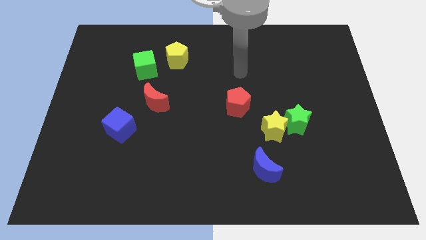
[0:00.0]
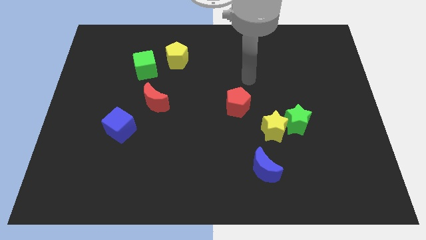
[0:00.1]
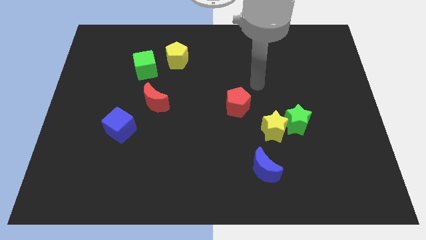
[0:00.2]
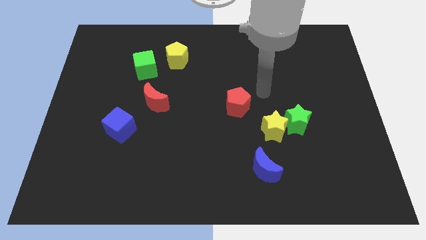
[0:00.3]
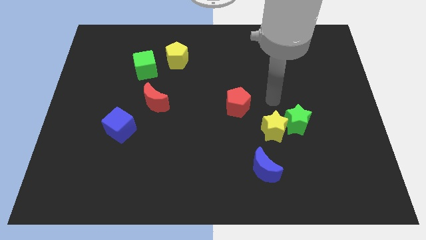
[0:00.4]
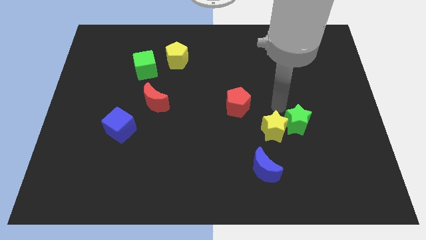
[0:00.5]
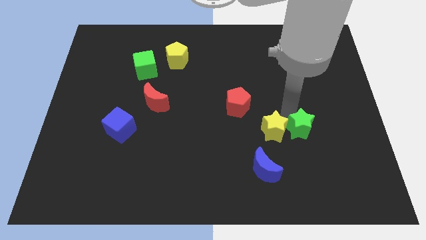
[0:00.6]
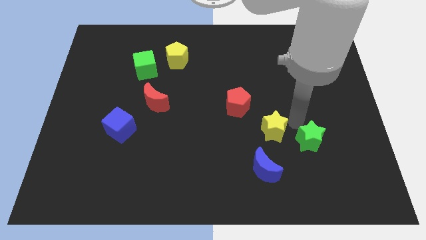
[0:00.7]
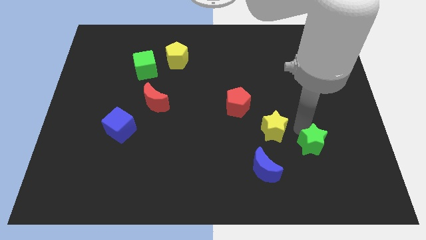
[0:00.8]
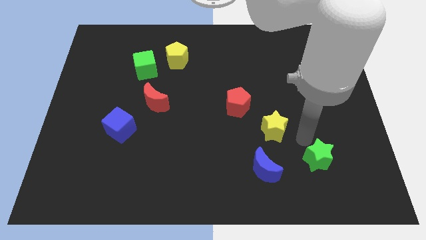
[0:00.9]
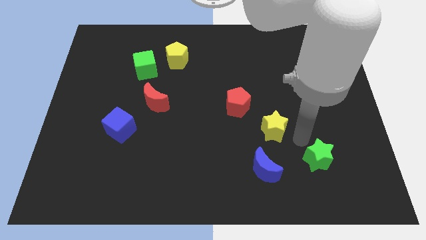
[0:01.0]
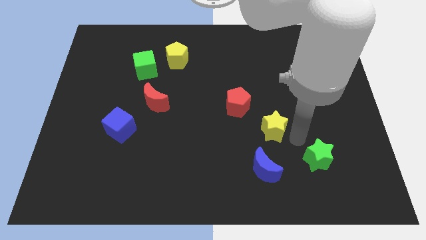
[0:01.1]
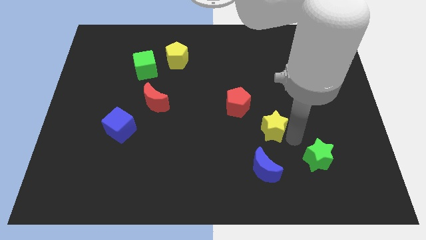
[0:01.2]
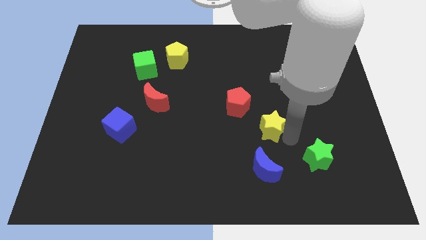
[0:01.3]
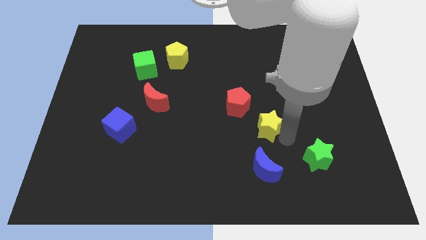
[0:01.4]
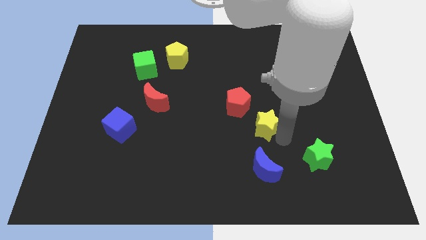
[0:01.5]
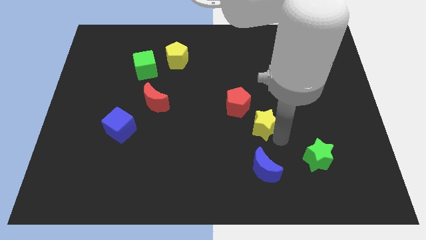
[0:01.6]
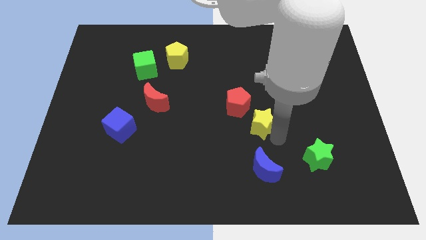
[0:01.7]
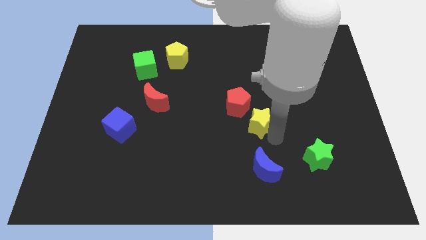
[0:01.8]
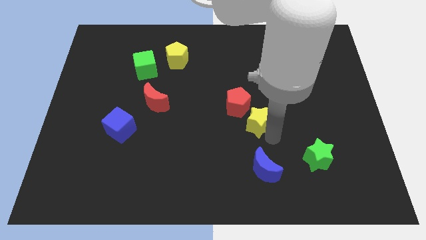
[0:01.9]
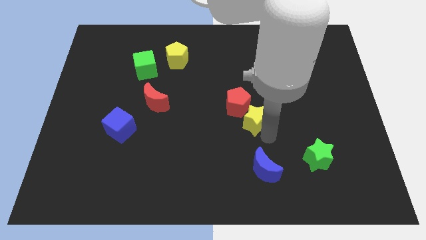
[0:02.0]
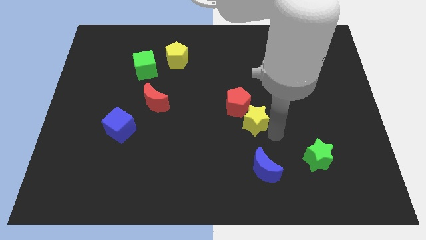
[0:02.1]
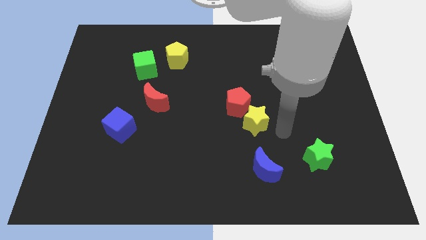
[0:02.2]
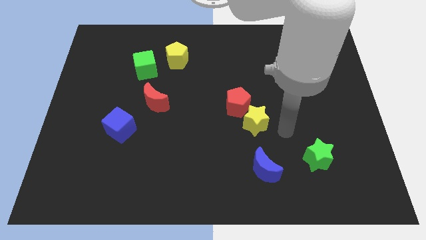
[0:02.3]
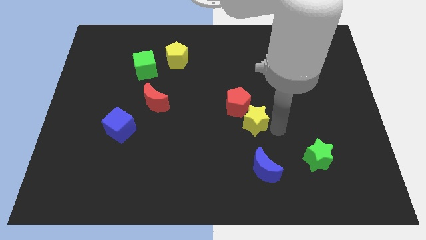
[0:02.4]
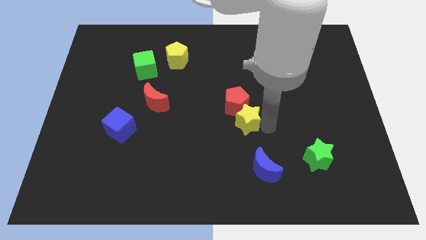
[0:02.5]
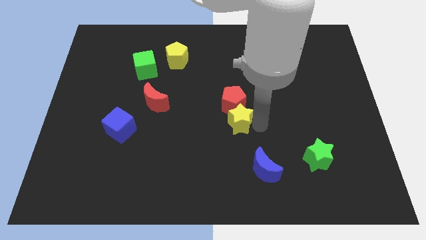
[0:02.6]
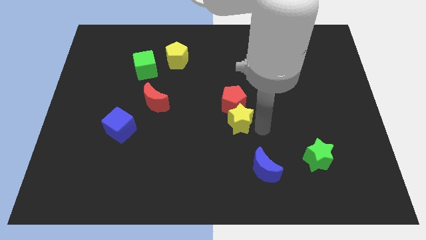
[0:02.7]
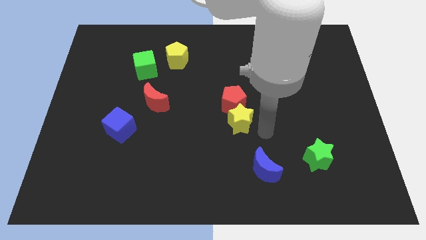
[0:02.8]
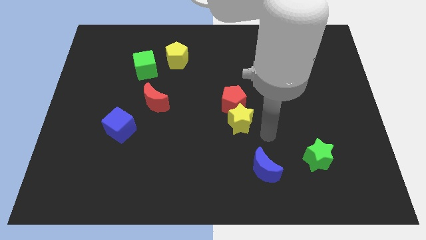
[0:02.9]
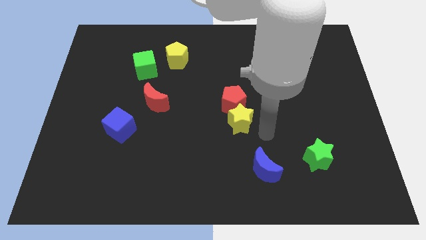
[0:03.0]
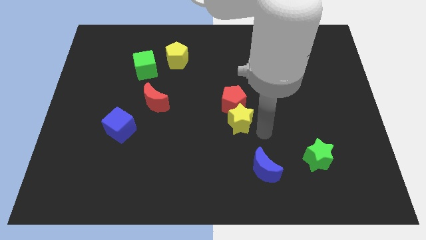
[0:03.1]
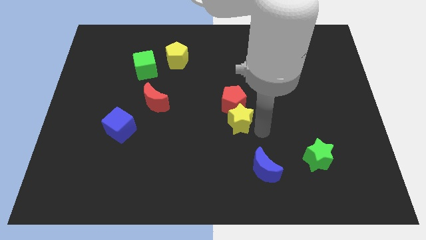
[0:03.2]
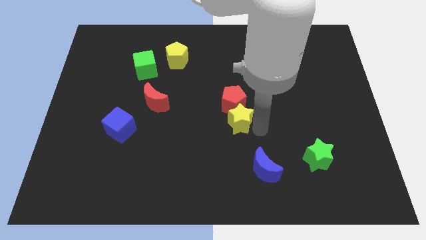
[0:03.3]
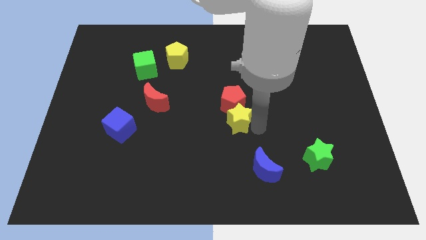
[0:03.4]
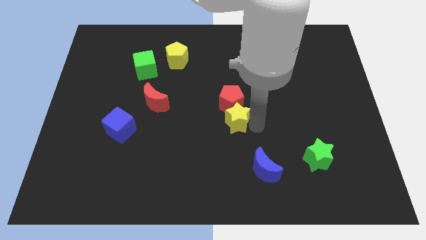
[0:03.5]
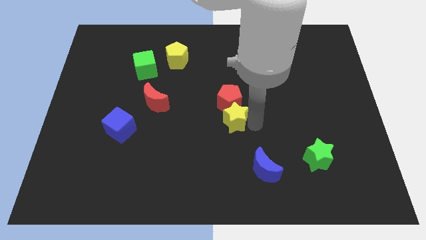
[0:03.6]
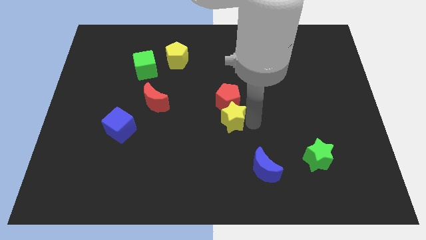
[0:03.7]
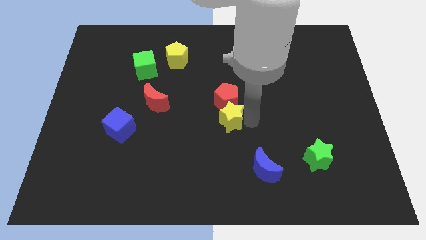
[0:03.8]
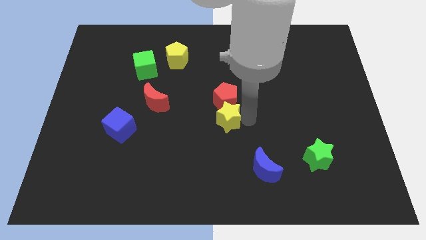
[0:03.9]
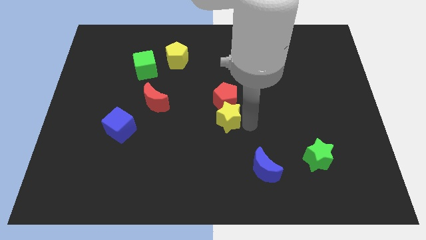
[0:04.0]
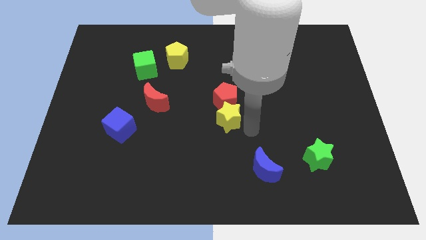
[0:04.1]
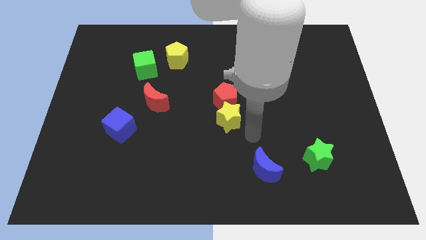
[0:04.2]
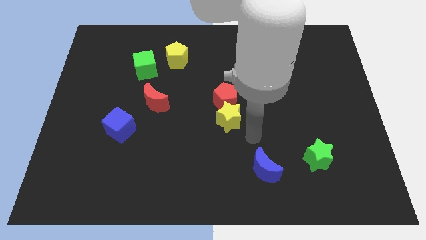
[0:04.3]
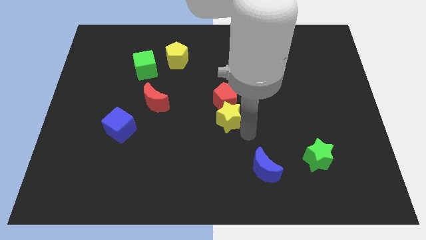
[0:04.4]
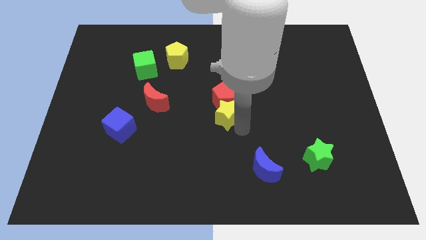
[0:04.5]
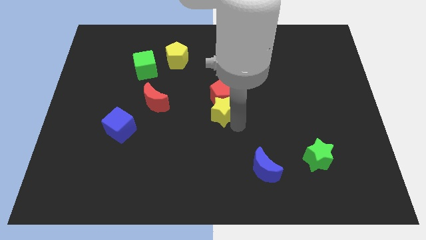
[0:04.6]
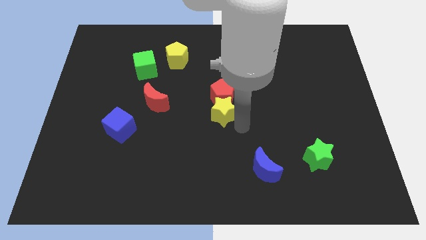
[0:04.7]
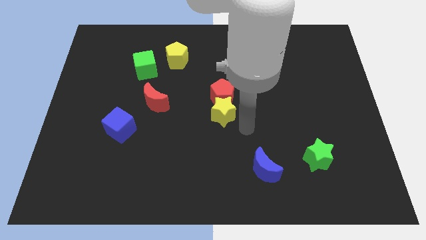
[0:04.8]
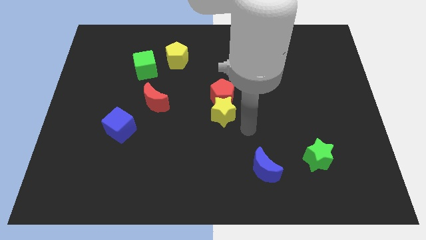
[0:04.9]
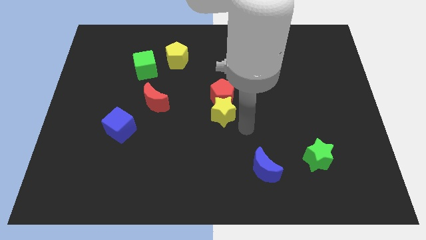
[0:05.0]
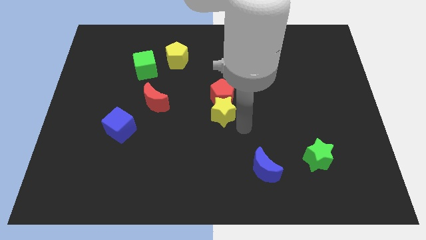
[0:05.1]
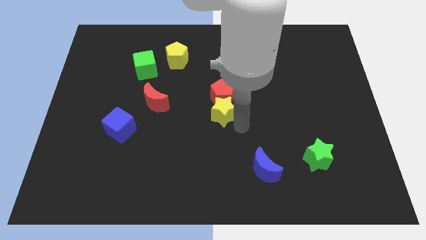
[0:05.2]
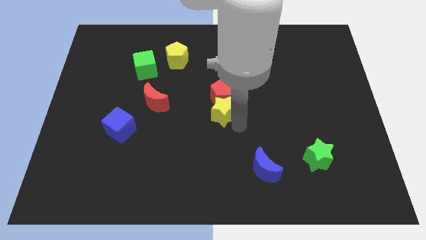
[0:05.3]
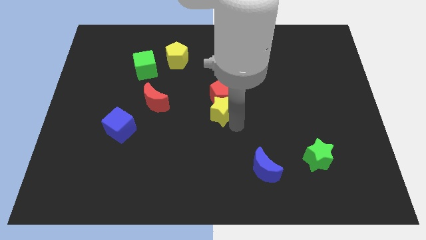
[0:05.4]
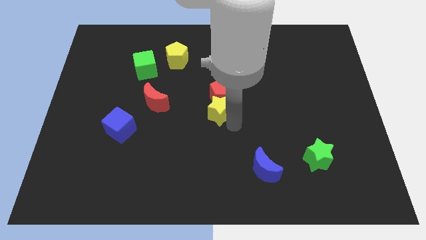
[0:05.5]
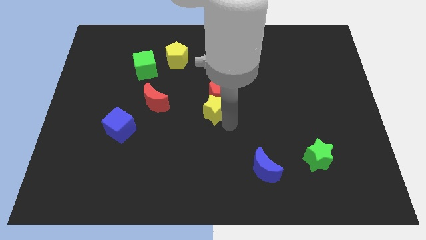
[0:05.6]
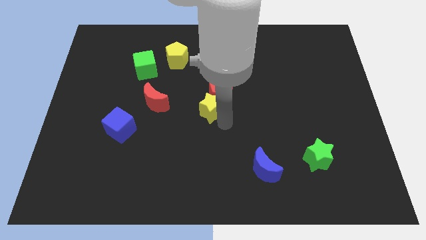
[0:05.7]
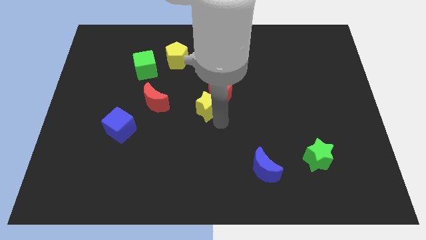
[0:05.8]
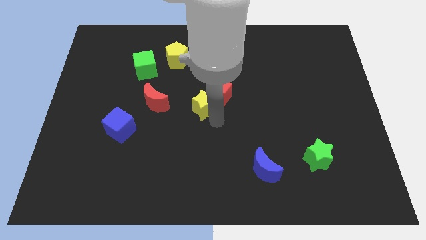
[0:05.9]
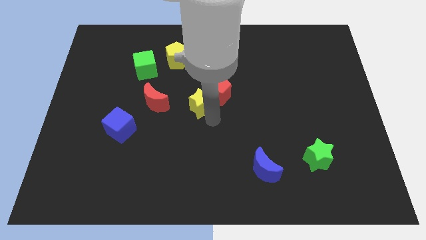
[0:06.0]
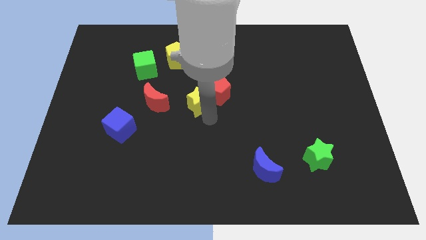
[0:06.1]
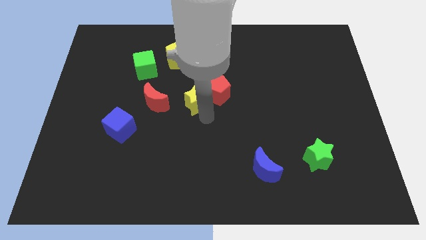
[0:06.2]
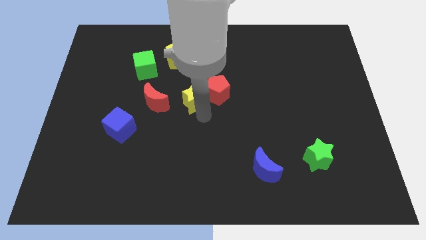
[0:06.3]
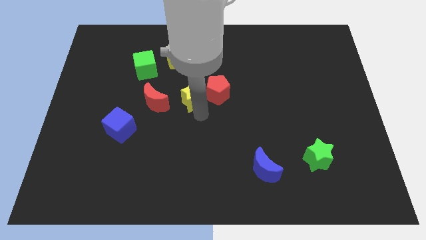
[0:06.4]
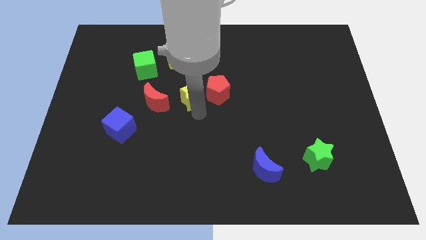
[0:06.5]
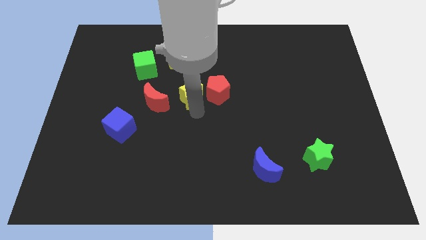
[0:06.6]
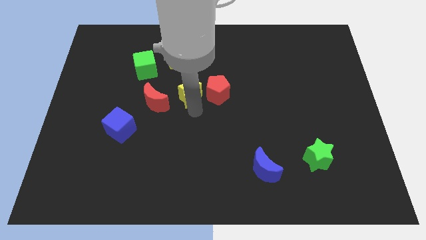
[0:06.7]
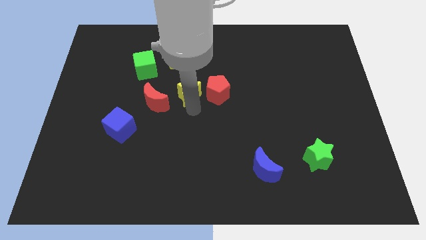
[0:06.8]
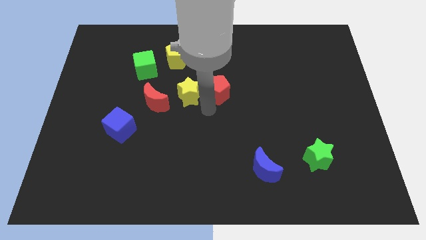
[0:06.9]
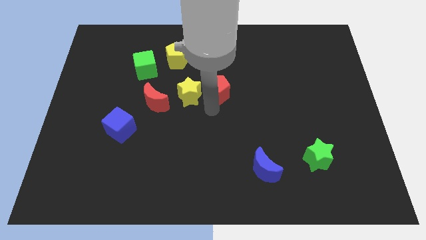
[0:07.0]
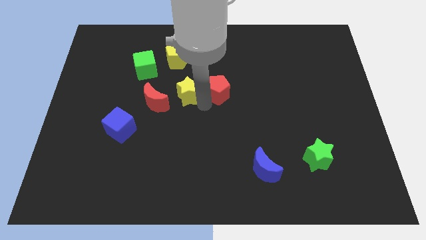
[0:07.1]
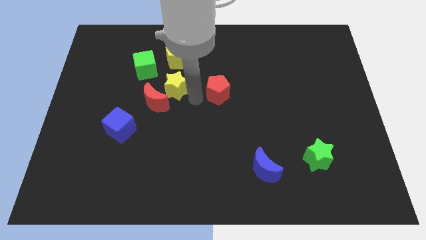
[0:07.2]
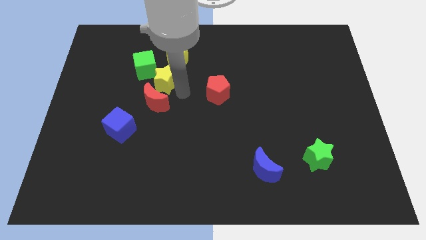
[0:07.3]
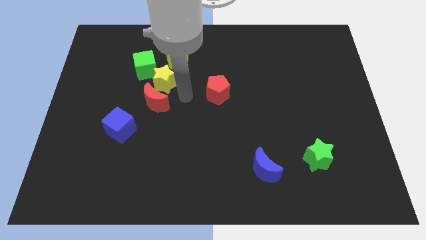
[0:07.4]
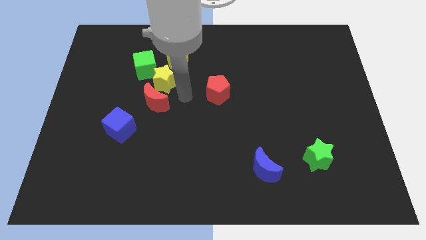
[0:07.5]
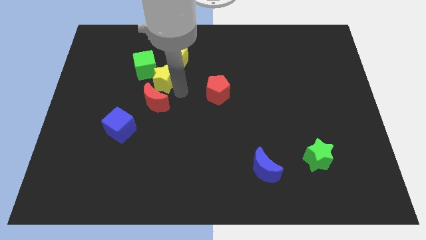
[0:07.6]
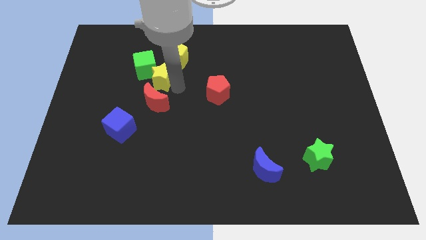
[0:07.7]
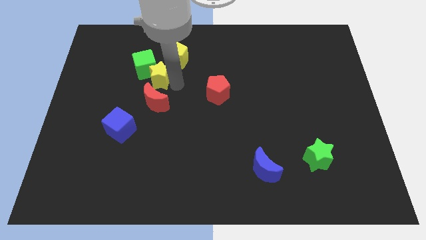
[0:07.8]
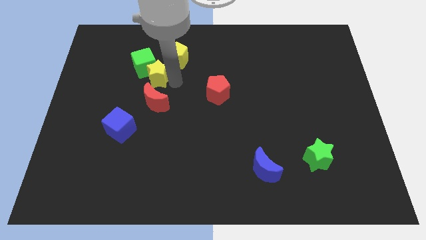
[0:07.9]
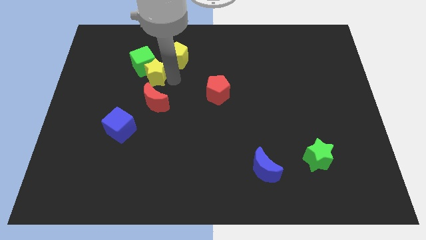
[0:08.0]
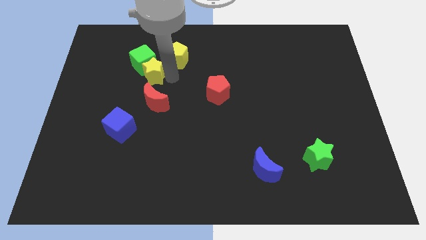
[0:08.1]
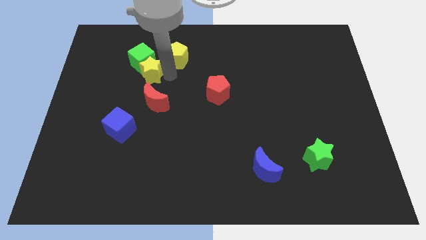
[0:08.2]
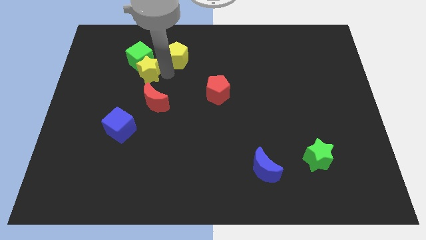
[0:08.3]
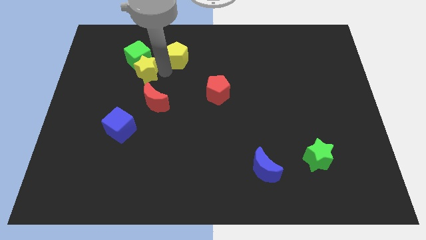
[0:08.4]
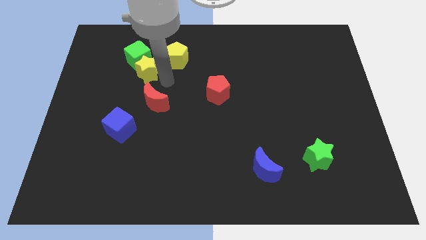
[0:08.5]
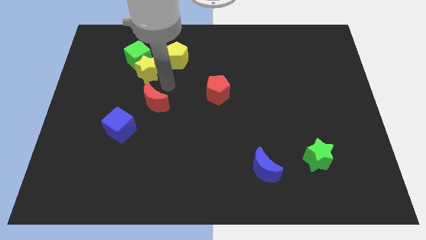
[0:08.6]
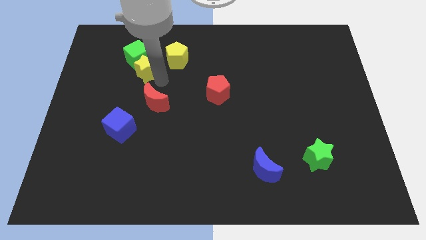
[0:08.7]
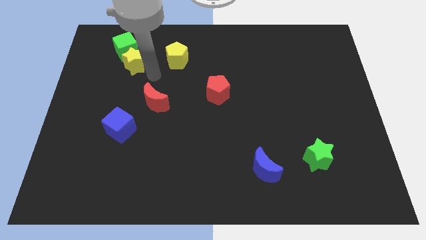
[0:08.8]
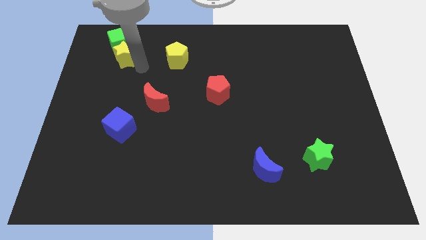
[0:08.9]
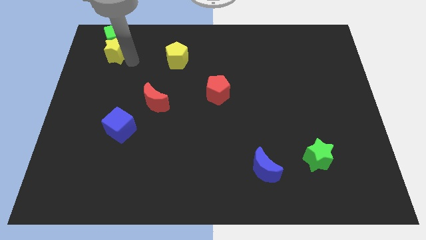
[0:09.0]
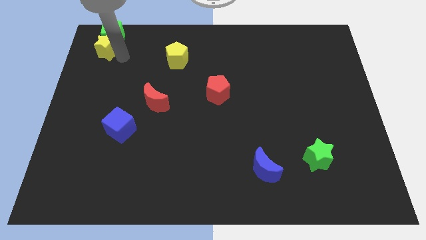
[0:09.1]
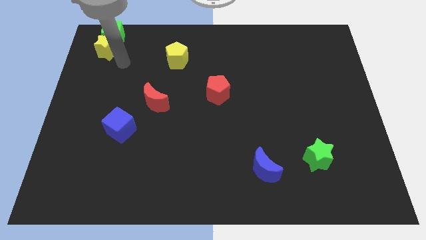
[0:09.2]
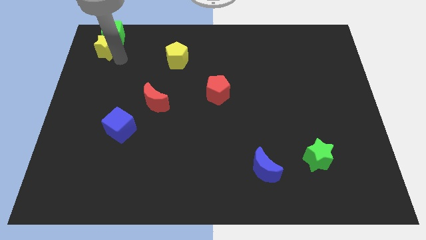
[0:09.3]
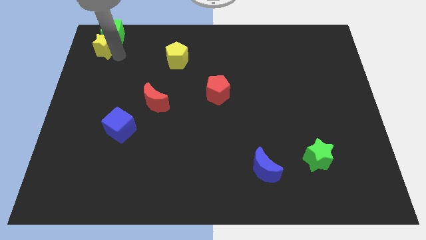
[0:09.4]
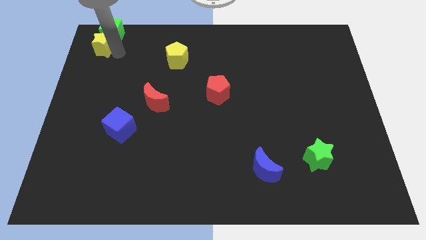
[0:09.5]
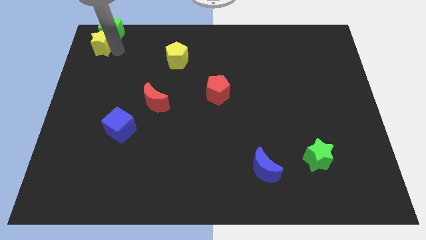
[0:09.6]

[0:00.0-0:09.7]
move the yellow star to the upper left corner
